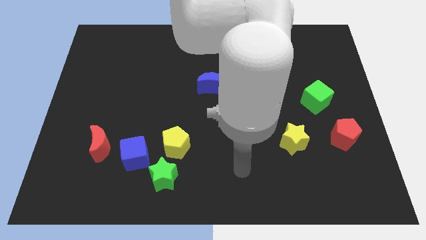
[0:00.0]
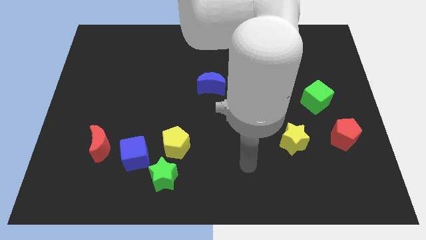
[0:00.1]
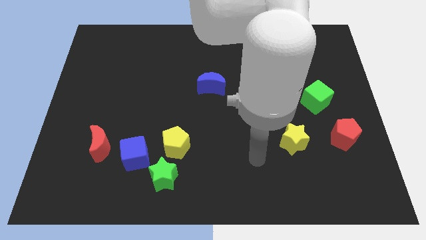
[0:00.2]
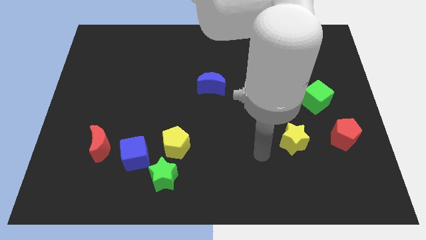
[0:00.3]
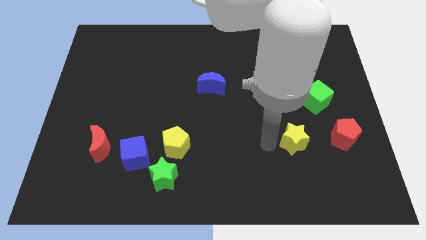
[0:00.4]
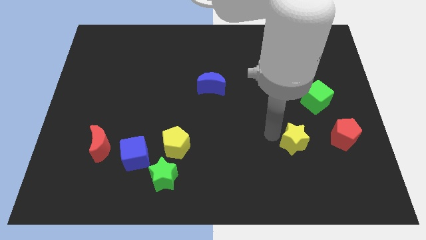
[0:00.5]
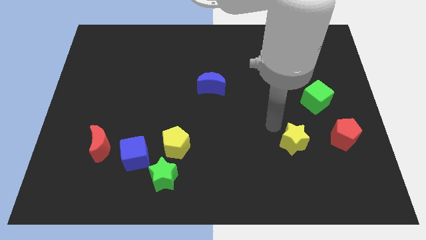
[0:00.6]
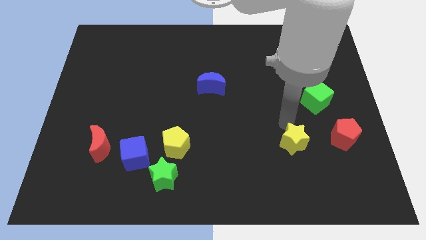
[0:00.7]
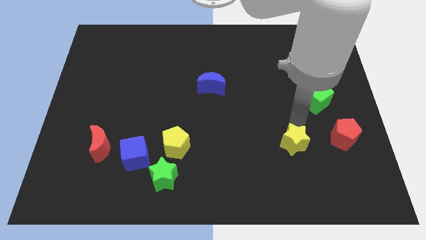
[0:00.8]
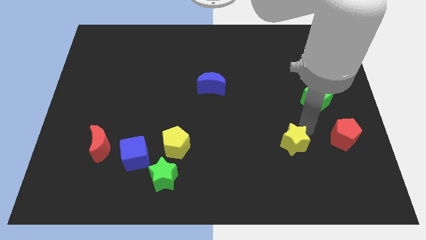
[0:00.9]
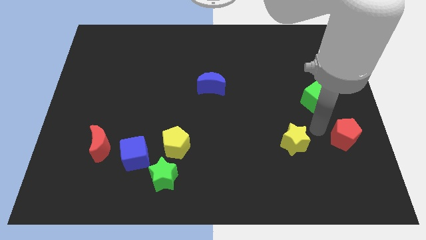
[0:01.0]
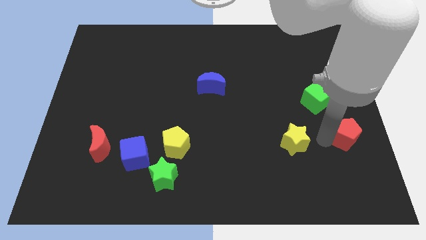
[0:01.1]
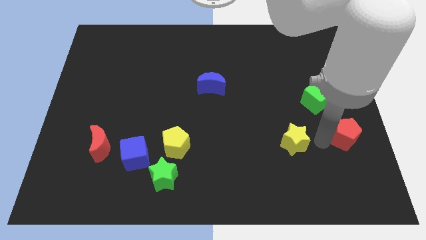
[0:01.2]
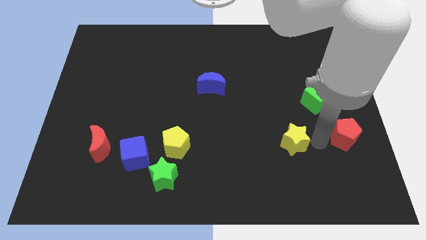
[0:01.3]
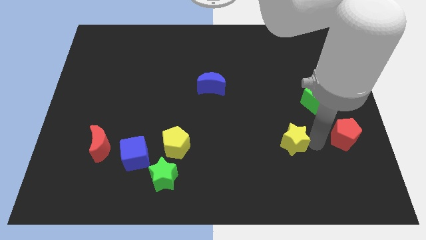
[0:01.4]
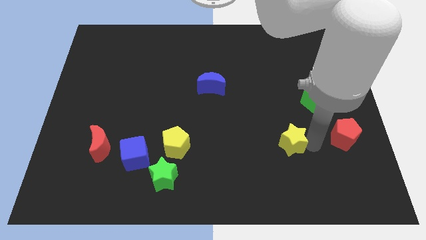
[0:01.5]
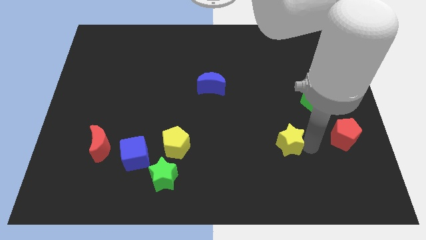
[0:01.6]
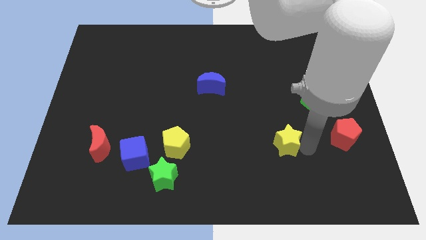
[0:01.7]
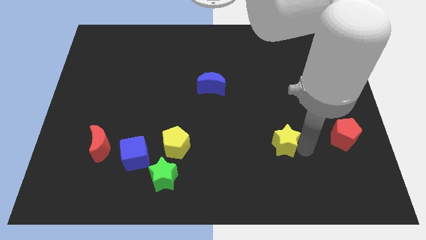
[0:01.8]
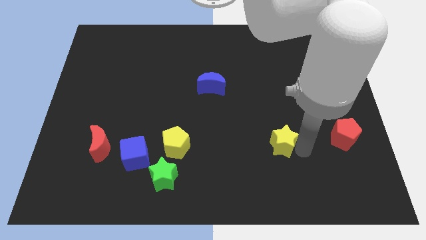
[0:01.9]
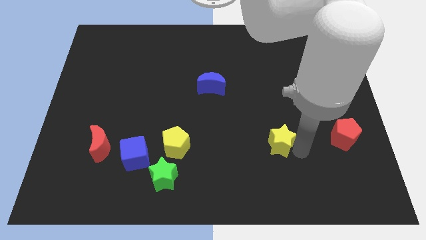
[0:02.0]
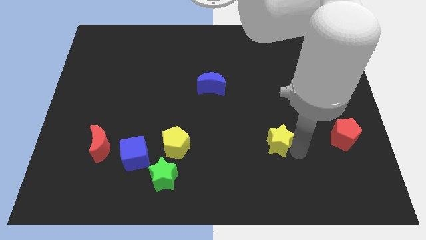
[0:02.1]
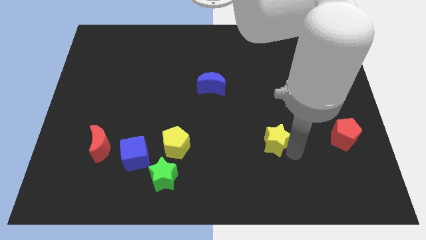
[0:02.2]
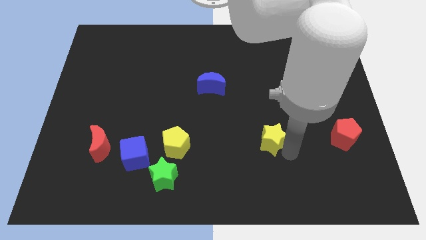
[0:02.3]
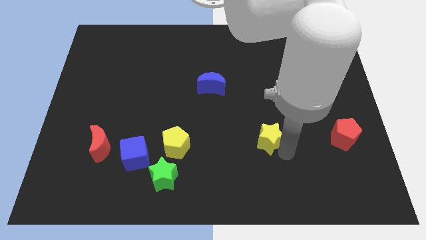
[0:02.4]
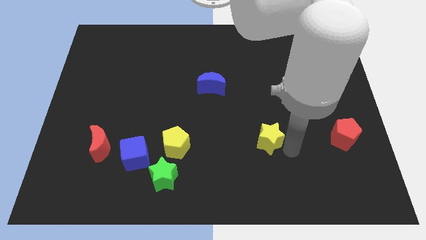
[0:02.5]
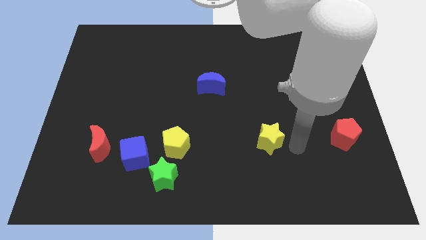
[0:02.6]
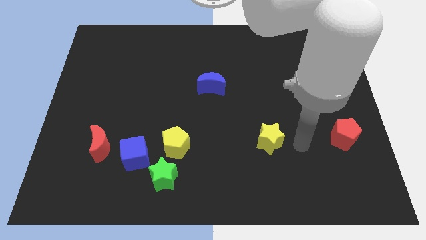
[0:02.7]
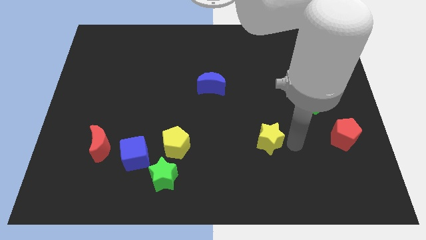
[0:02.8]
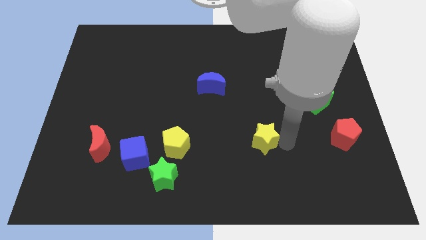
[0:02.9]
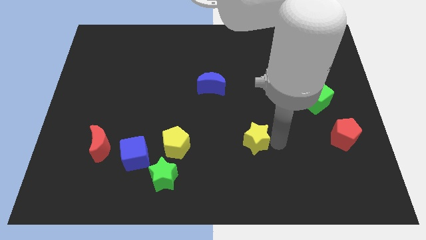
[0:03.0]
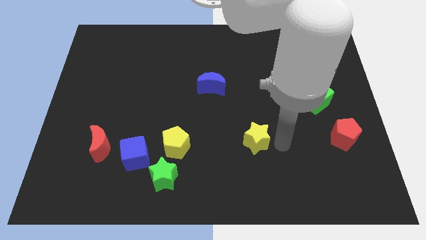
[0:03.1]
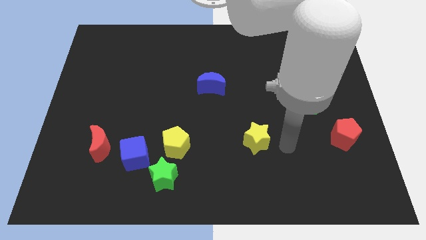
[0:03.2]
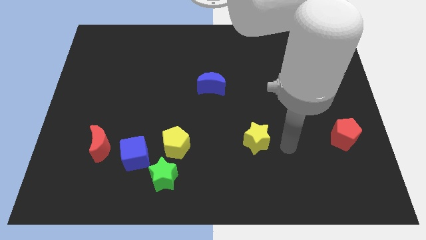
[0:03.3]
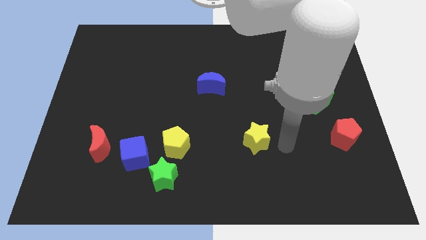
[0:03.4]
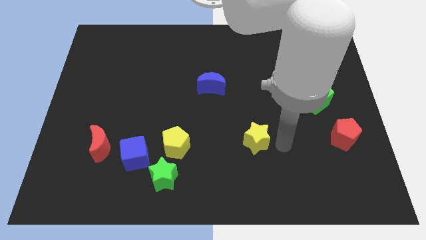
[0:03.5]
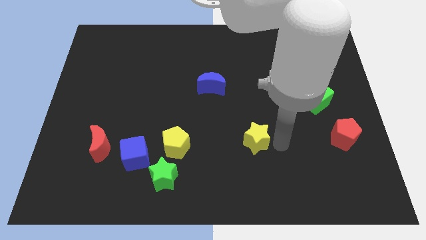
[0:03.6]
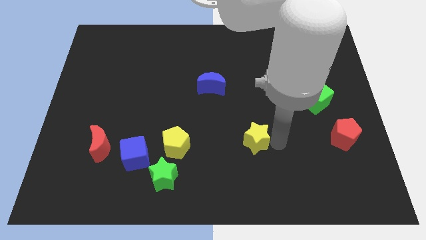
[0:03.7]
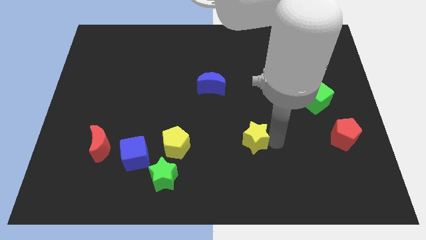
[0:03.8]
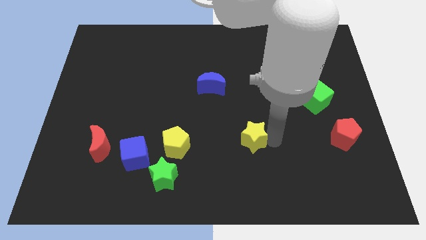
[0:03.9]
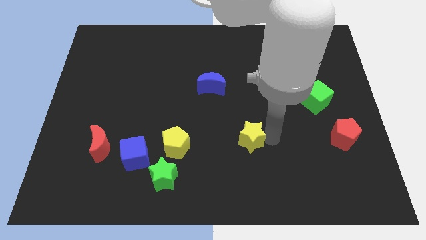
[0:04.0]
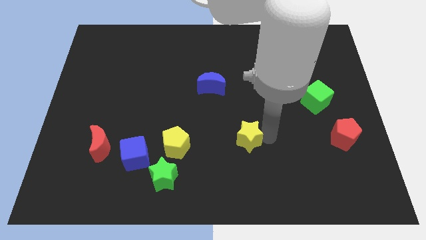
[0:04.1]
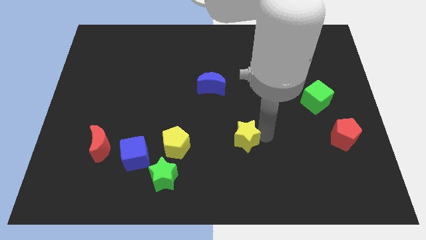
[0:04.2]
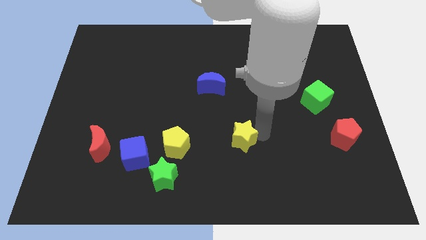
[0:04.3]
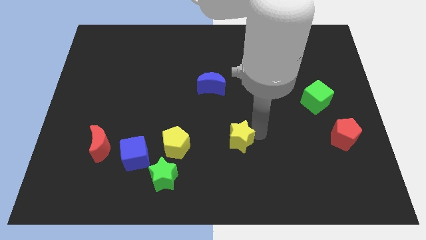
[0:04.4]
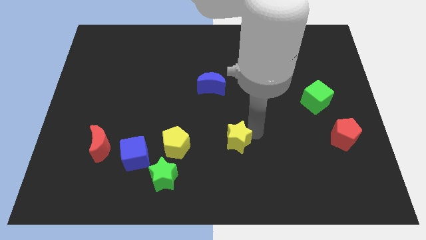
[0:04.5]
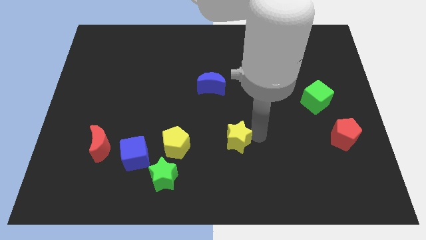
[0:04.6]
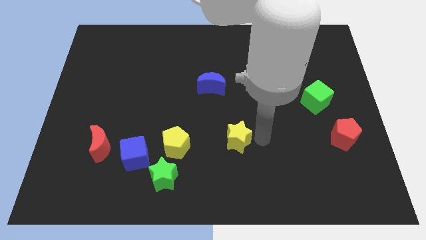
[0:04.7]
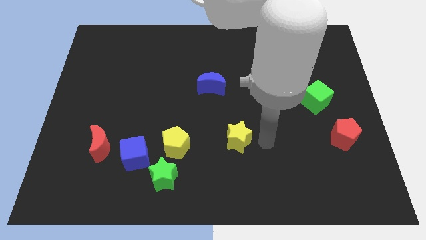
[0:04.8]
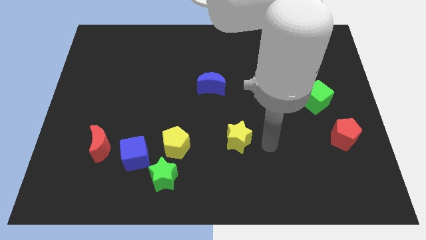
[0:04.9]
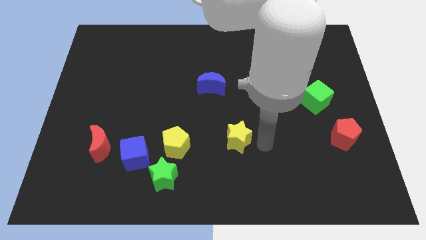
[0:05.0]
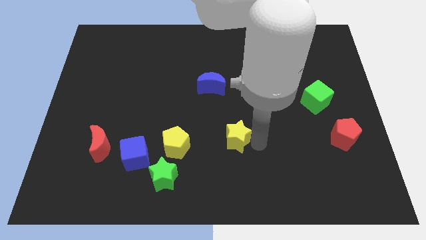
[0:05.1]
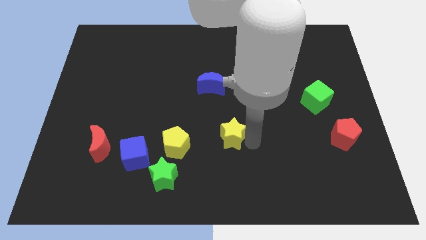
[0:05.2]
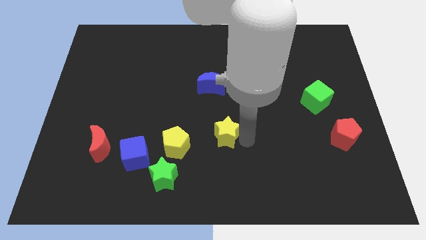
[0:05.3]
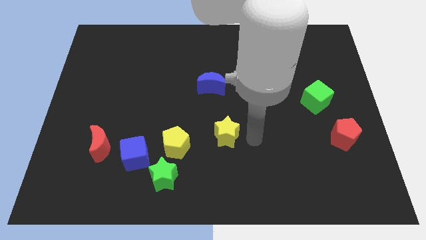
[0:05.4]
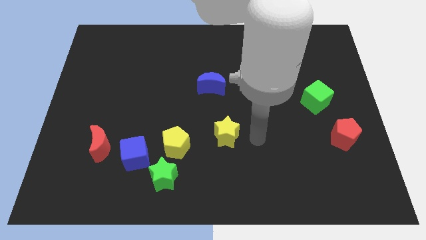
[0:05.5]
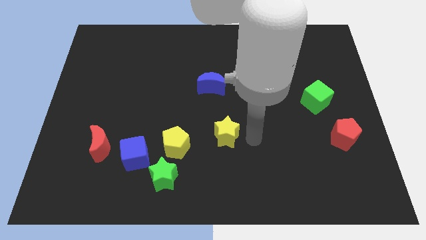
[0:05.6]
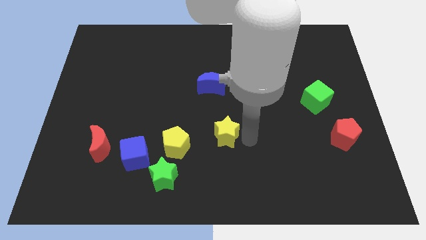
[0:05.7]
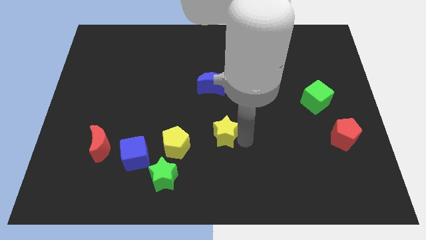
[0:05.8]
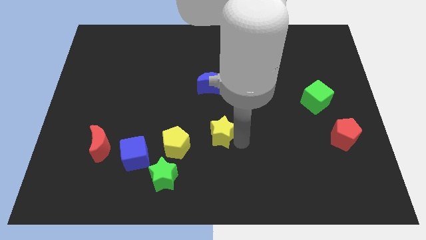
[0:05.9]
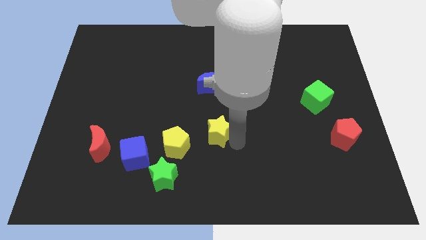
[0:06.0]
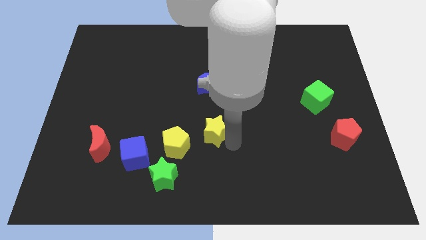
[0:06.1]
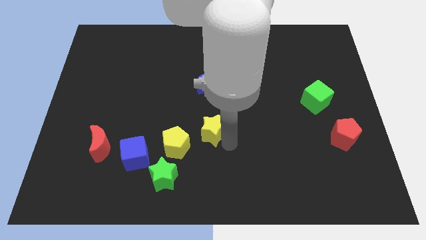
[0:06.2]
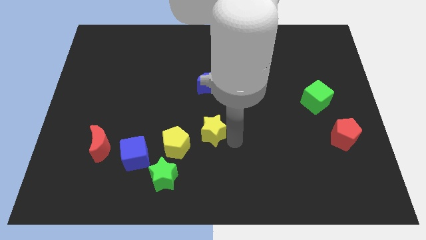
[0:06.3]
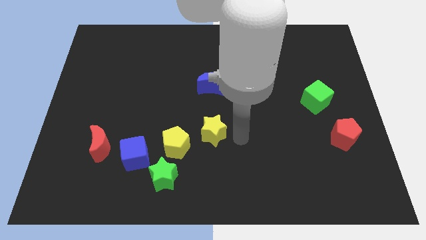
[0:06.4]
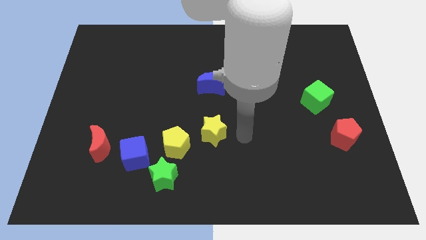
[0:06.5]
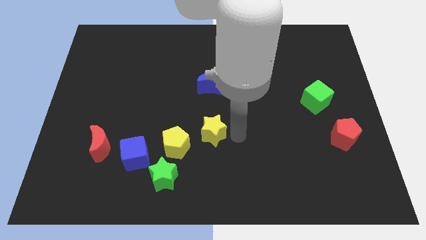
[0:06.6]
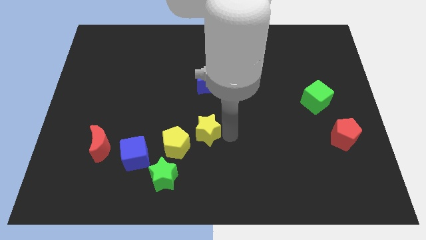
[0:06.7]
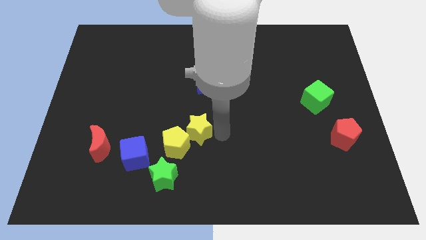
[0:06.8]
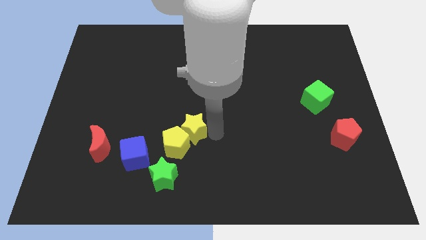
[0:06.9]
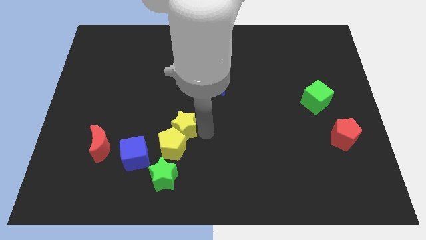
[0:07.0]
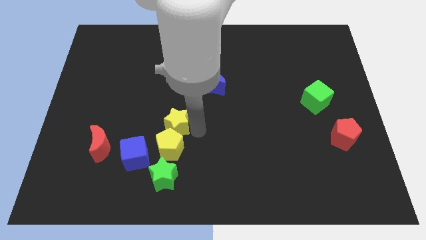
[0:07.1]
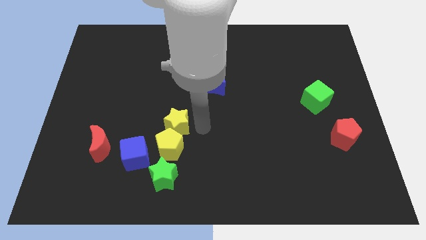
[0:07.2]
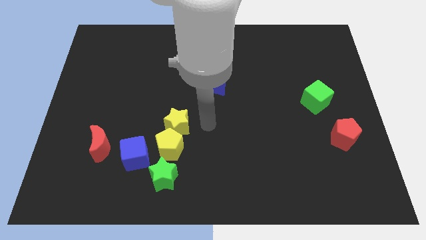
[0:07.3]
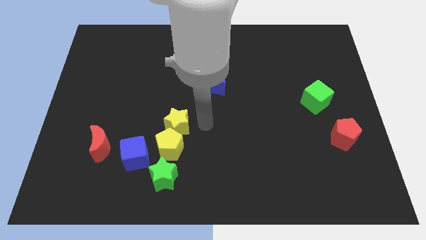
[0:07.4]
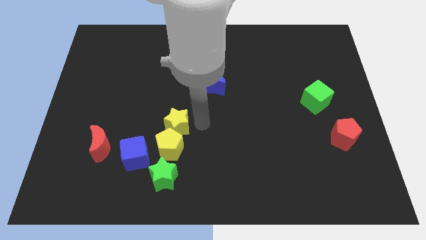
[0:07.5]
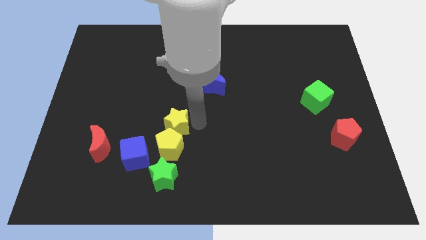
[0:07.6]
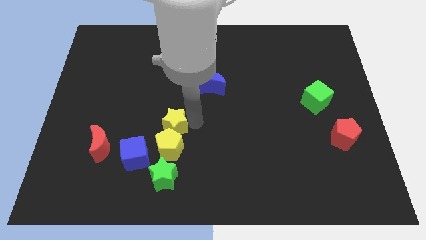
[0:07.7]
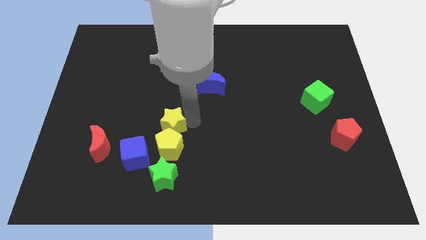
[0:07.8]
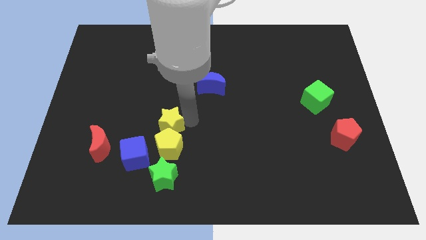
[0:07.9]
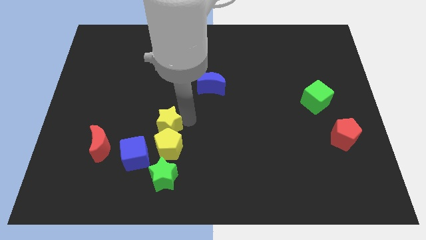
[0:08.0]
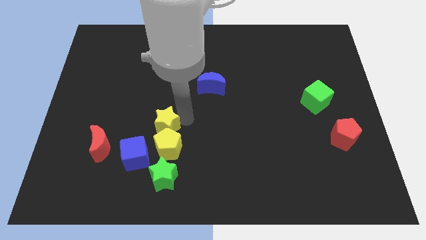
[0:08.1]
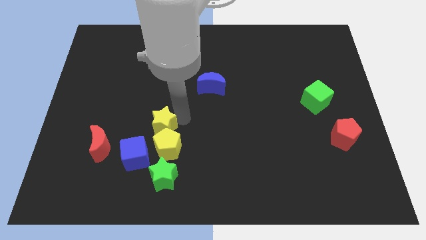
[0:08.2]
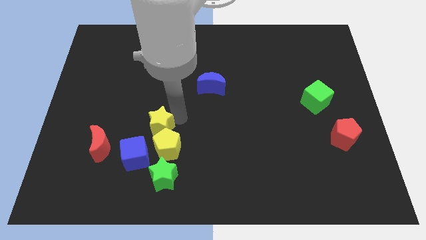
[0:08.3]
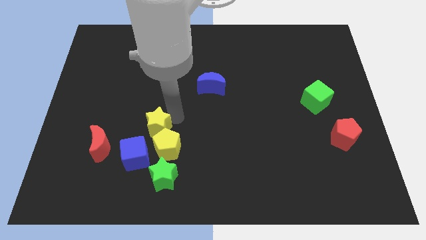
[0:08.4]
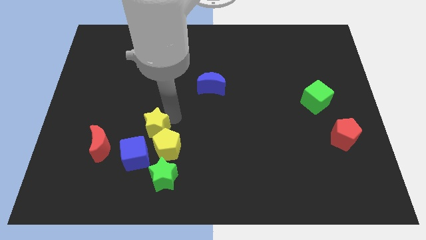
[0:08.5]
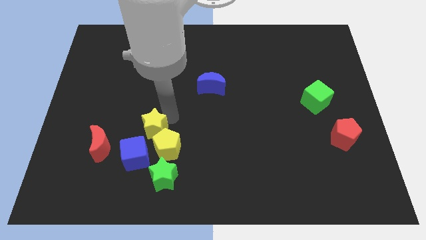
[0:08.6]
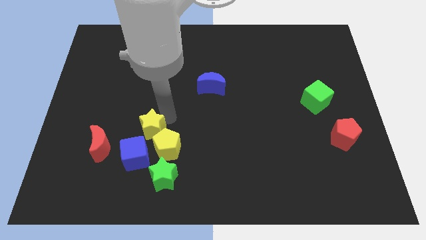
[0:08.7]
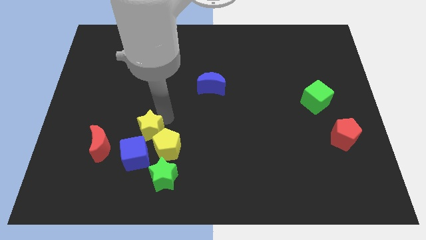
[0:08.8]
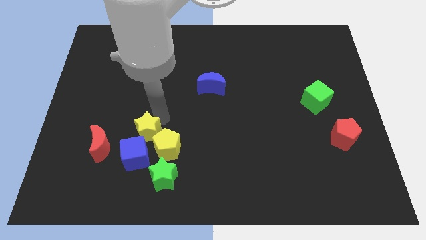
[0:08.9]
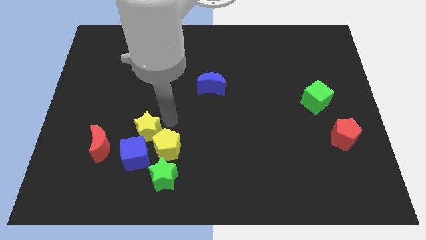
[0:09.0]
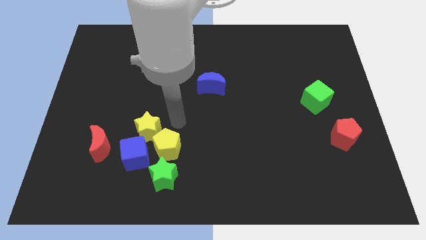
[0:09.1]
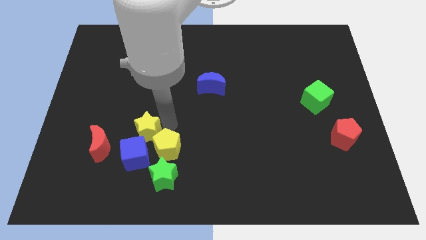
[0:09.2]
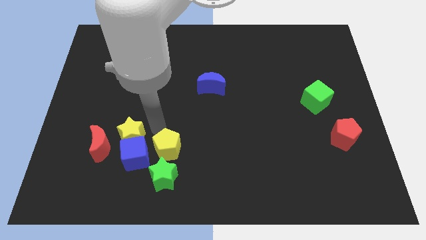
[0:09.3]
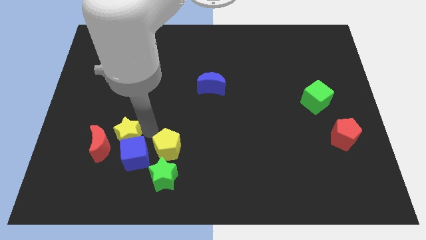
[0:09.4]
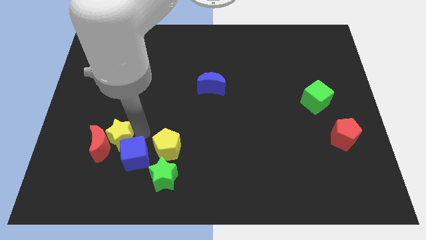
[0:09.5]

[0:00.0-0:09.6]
move the yellow star next to the red moon
